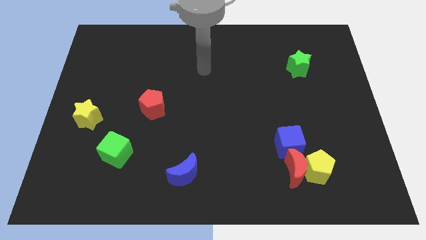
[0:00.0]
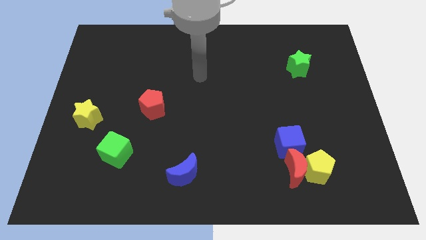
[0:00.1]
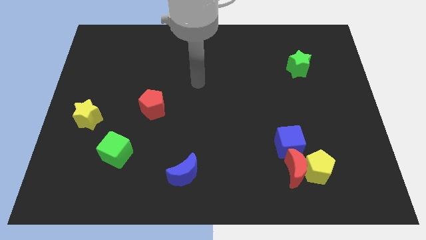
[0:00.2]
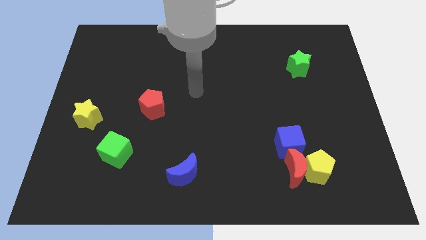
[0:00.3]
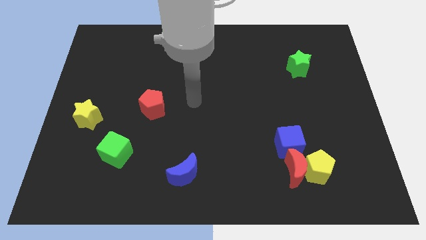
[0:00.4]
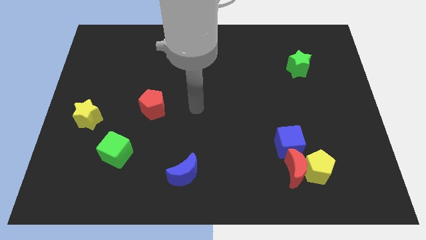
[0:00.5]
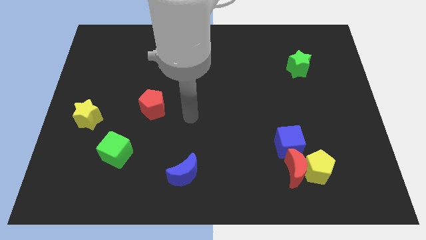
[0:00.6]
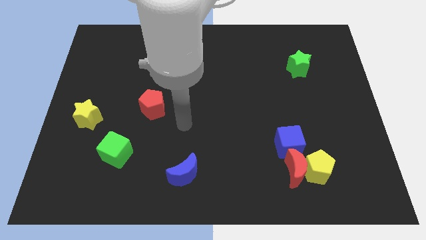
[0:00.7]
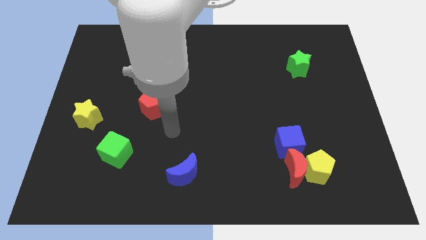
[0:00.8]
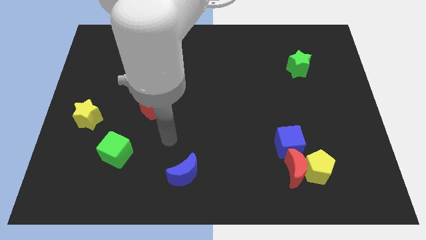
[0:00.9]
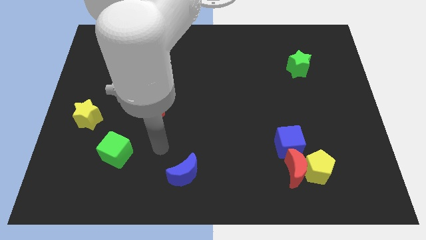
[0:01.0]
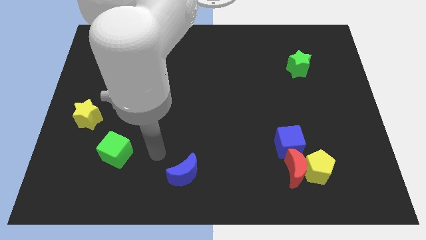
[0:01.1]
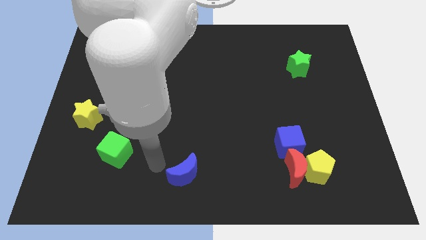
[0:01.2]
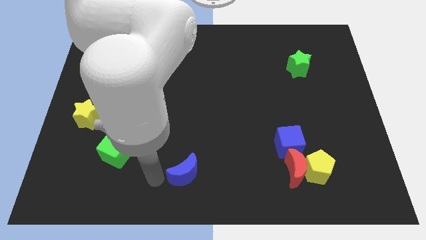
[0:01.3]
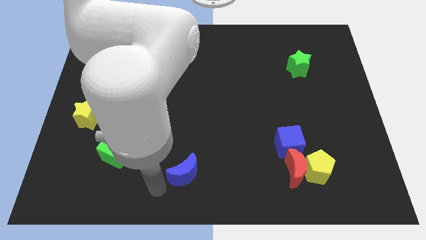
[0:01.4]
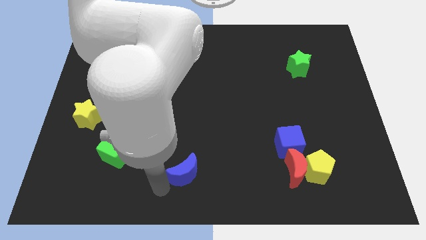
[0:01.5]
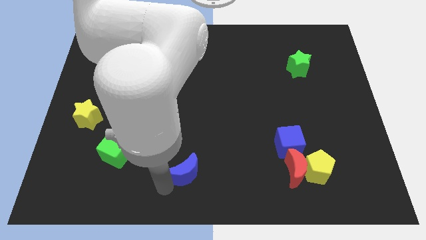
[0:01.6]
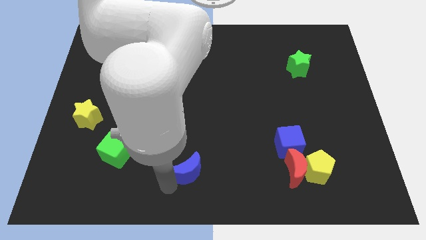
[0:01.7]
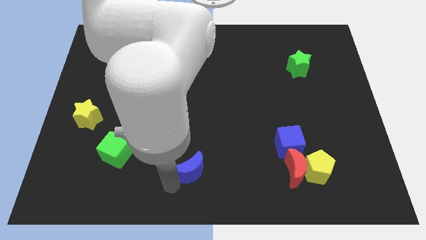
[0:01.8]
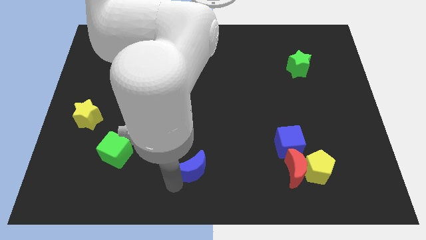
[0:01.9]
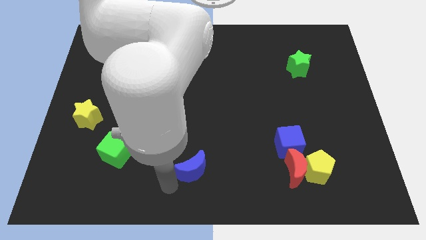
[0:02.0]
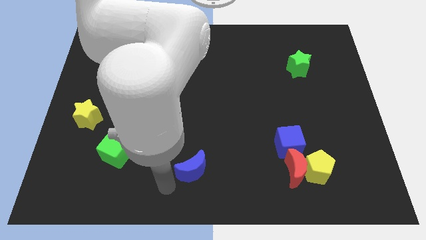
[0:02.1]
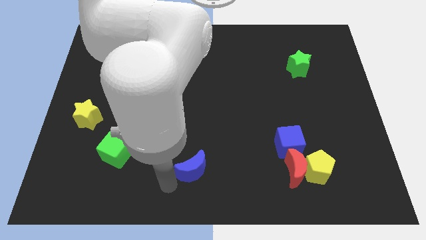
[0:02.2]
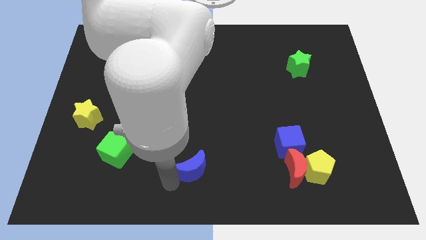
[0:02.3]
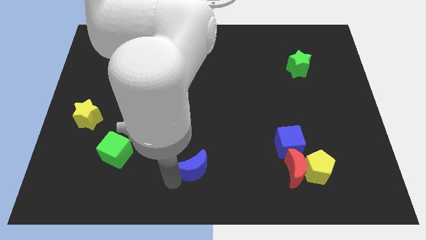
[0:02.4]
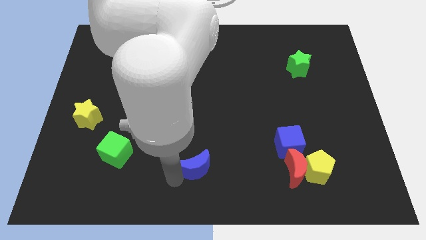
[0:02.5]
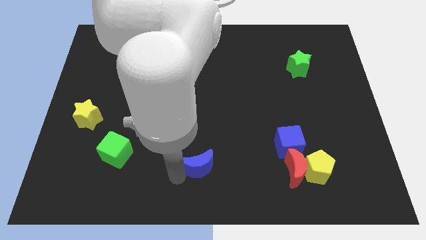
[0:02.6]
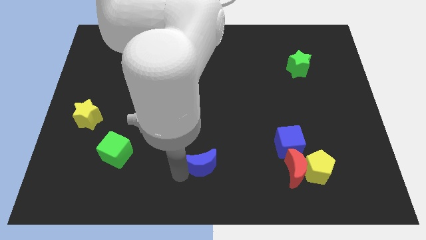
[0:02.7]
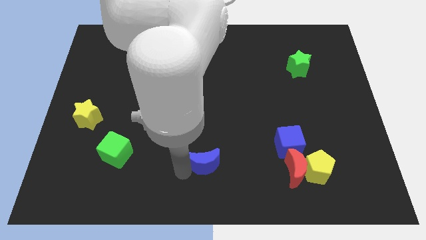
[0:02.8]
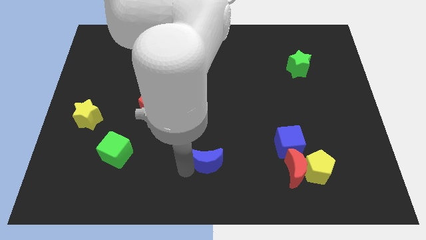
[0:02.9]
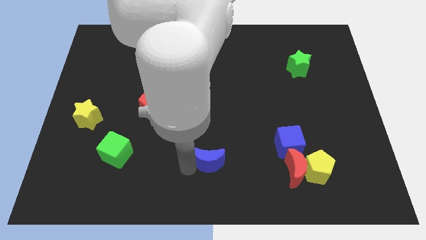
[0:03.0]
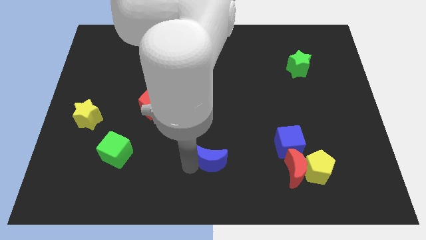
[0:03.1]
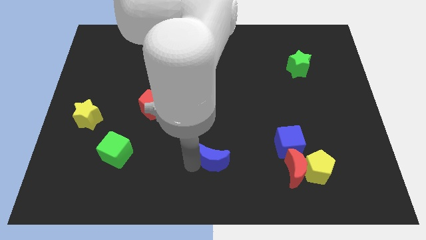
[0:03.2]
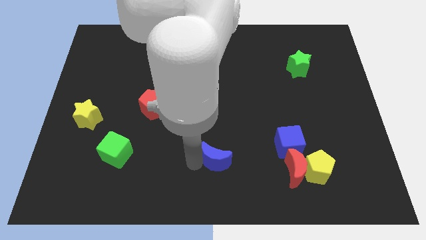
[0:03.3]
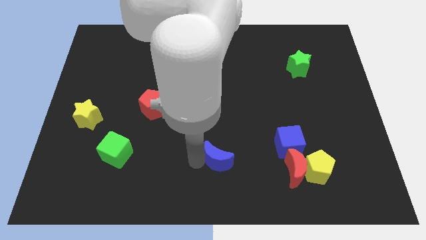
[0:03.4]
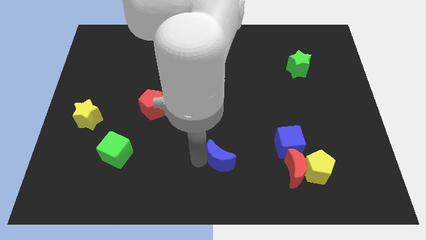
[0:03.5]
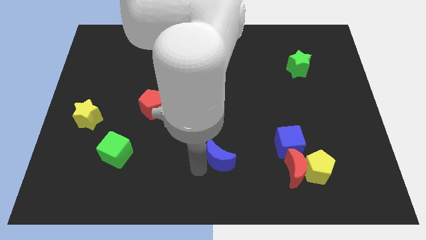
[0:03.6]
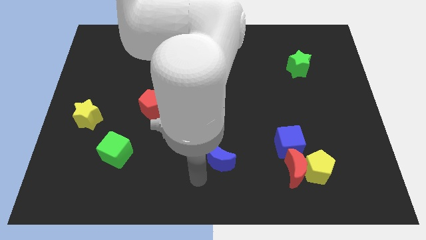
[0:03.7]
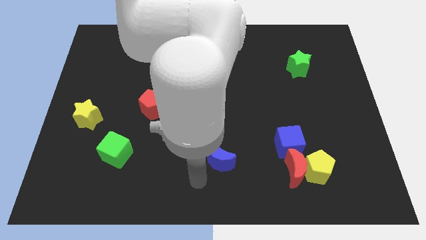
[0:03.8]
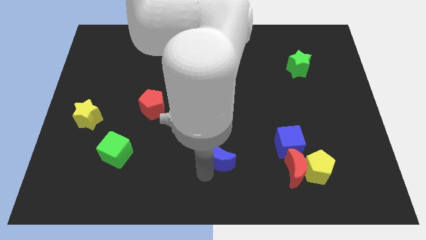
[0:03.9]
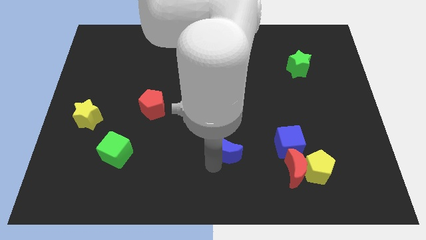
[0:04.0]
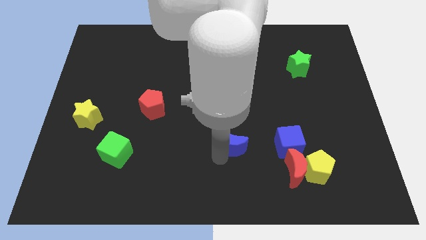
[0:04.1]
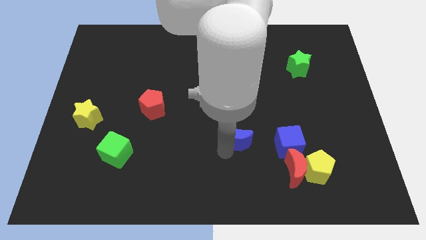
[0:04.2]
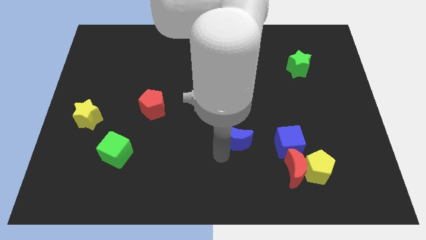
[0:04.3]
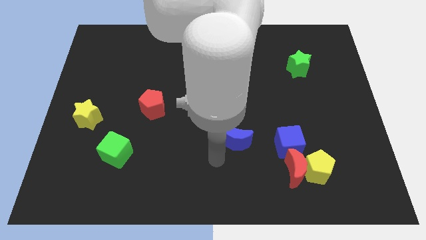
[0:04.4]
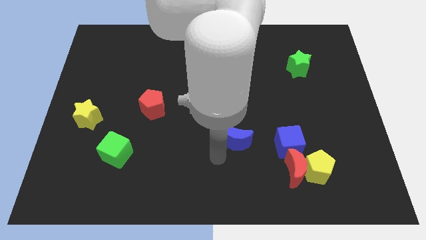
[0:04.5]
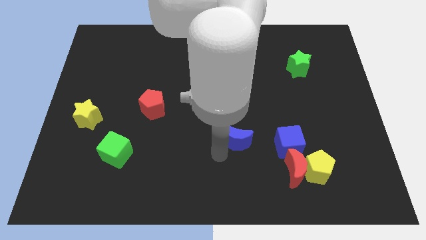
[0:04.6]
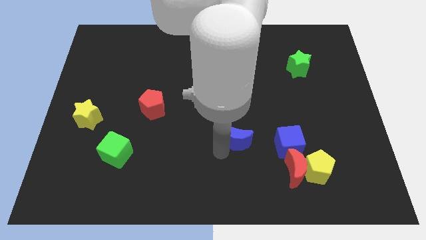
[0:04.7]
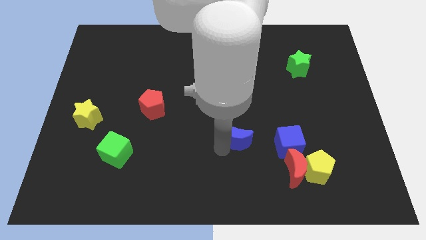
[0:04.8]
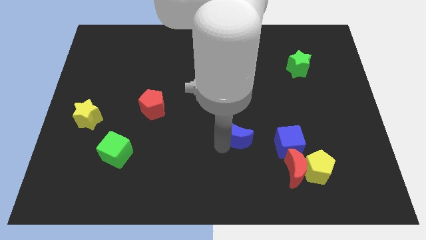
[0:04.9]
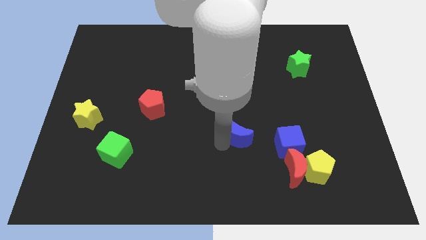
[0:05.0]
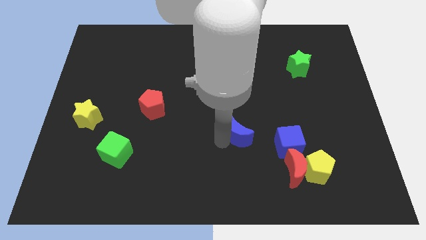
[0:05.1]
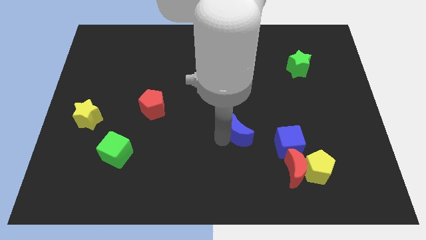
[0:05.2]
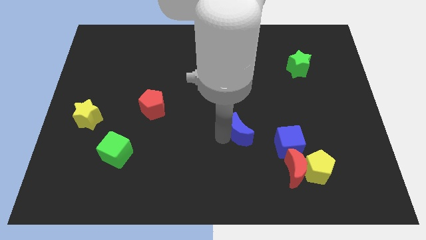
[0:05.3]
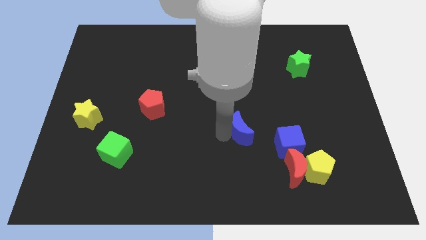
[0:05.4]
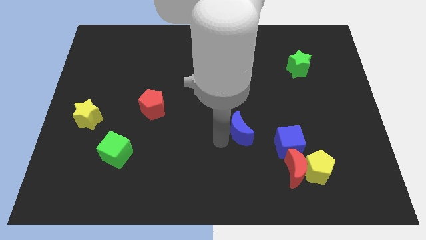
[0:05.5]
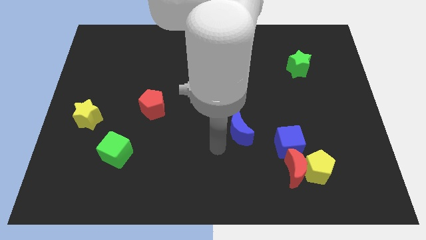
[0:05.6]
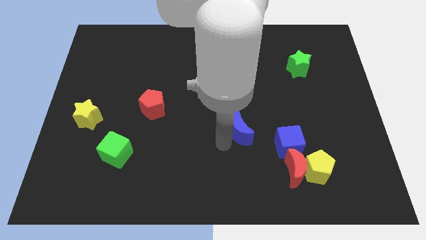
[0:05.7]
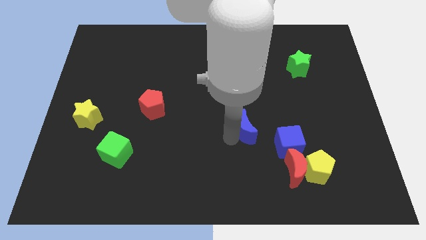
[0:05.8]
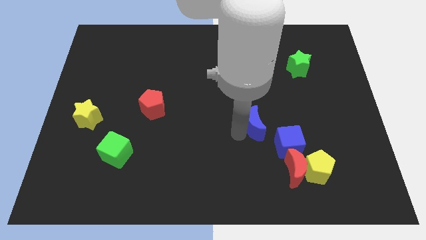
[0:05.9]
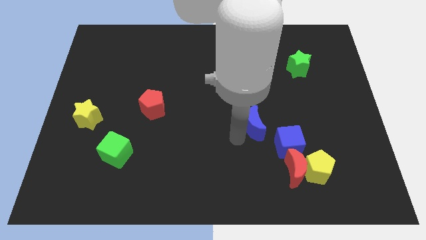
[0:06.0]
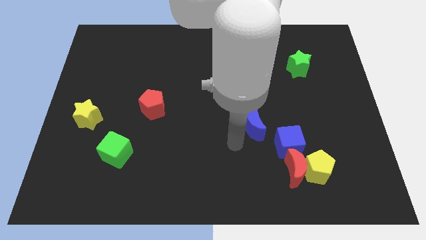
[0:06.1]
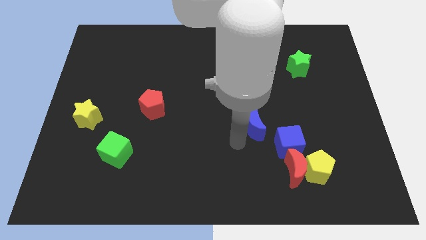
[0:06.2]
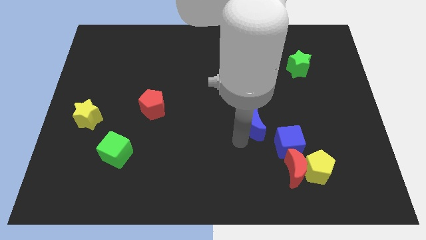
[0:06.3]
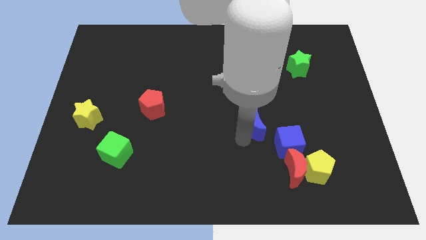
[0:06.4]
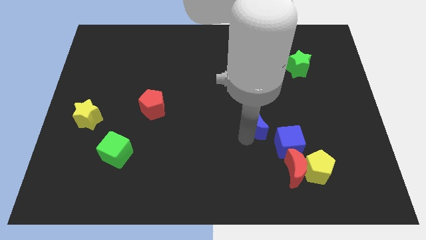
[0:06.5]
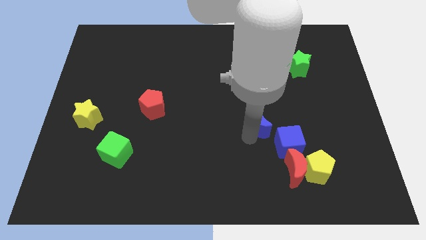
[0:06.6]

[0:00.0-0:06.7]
slide the blue moon diagonally up and right

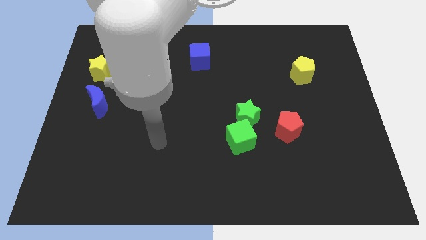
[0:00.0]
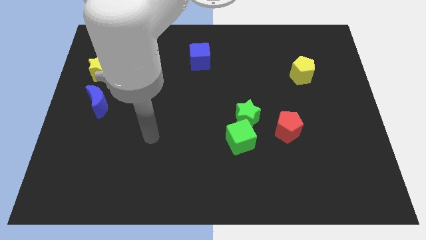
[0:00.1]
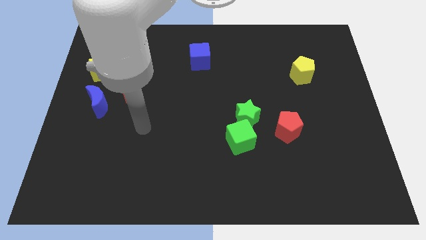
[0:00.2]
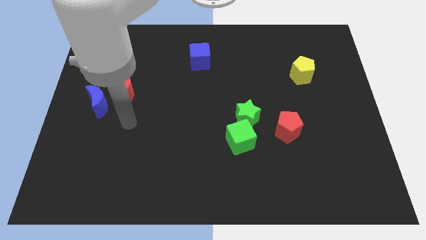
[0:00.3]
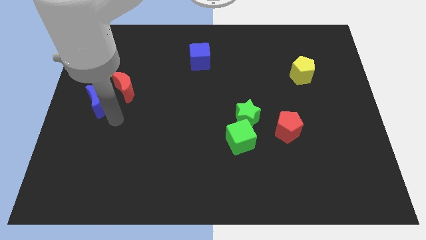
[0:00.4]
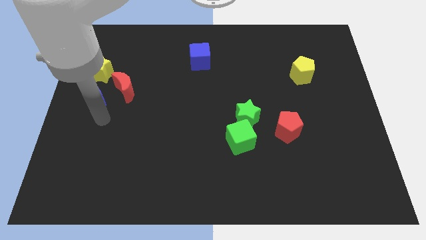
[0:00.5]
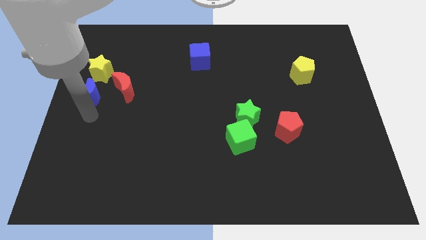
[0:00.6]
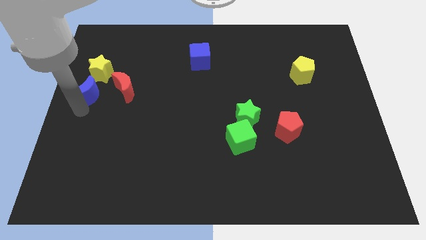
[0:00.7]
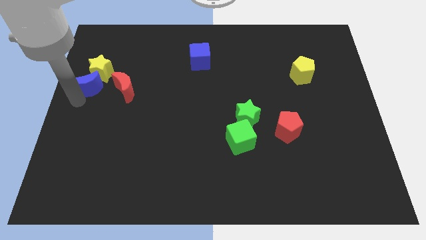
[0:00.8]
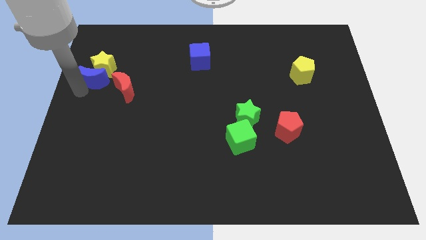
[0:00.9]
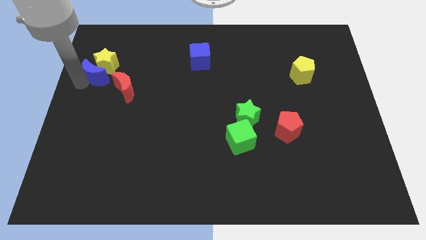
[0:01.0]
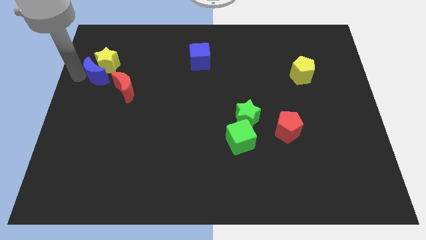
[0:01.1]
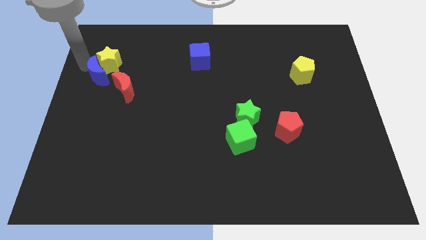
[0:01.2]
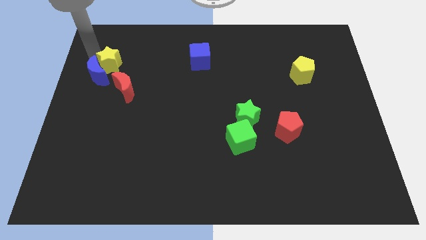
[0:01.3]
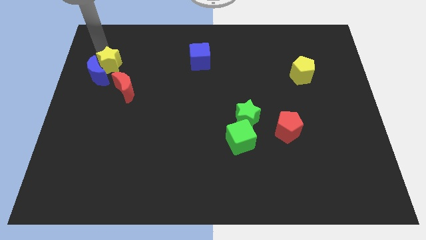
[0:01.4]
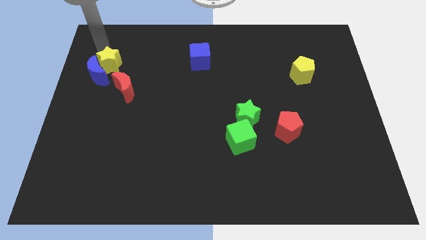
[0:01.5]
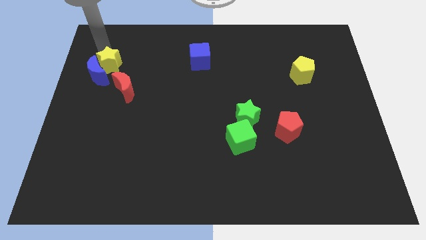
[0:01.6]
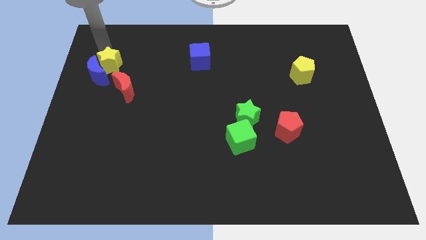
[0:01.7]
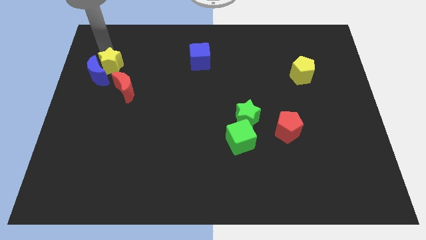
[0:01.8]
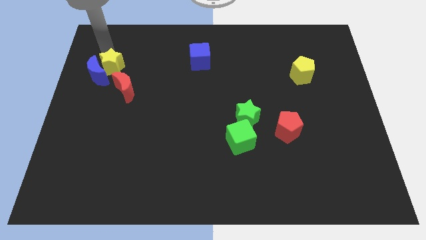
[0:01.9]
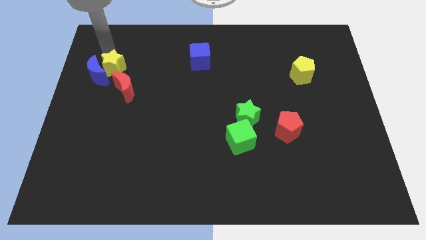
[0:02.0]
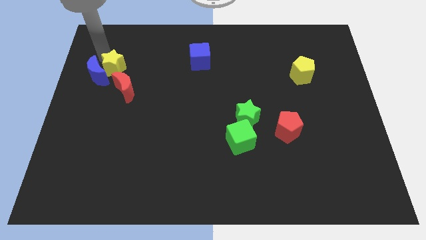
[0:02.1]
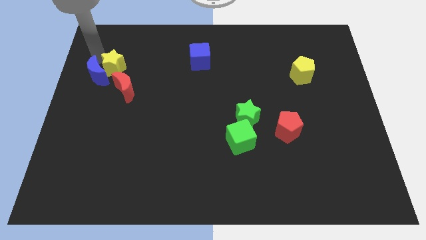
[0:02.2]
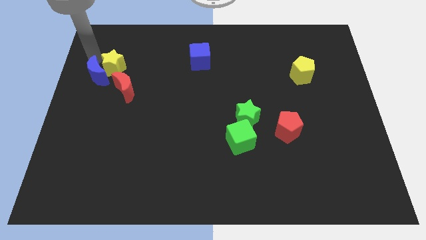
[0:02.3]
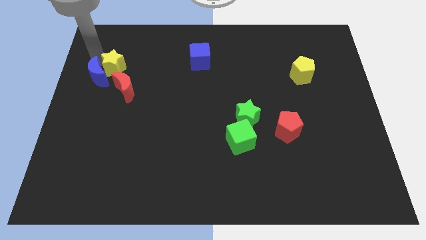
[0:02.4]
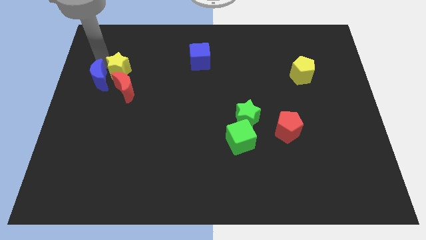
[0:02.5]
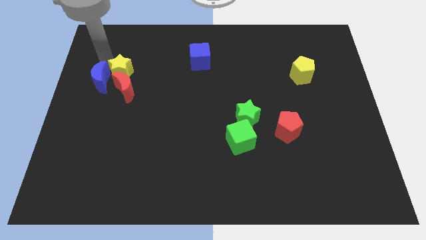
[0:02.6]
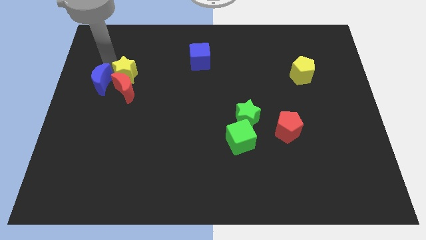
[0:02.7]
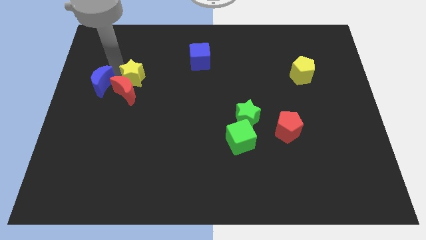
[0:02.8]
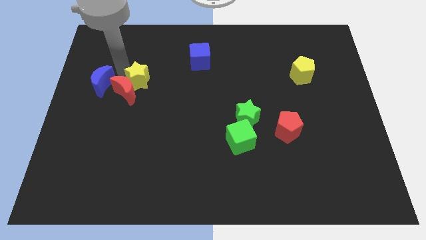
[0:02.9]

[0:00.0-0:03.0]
push the yellow star somewhat down and then right
